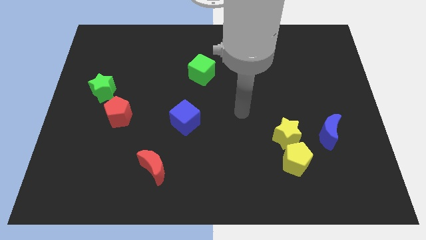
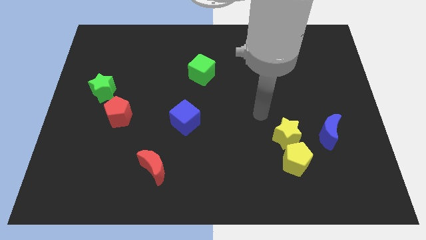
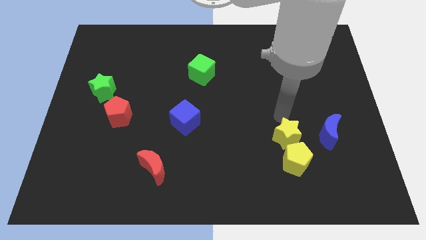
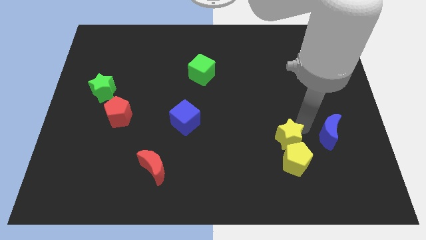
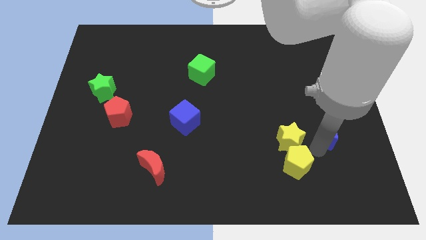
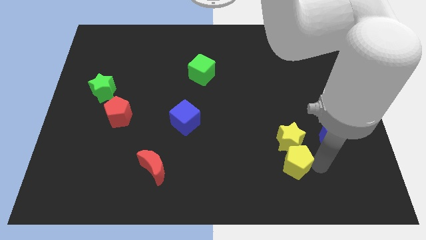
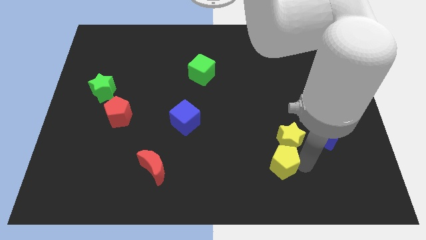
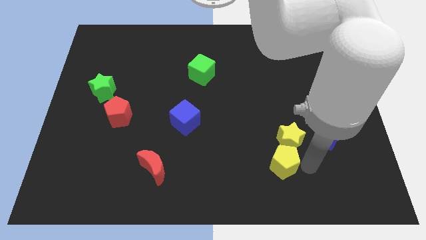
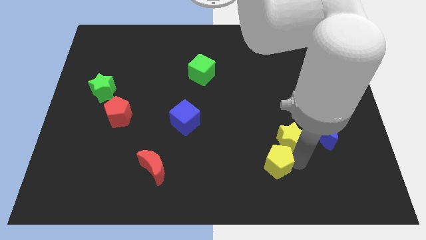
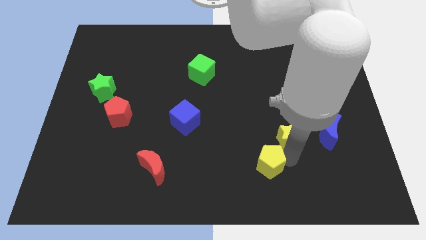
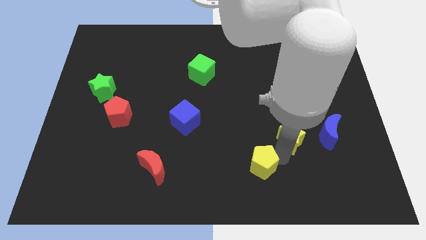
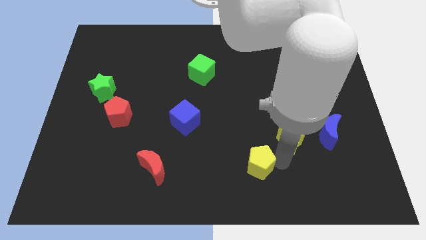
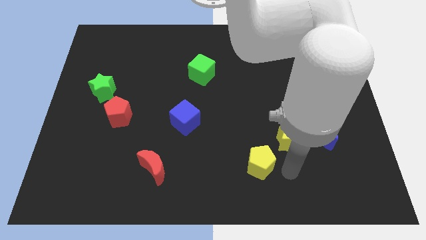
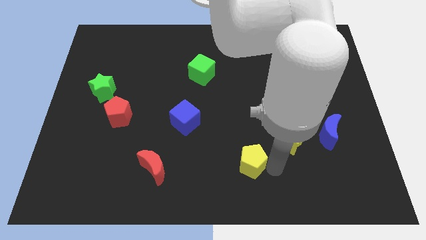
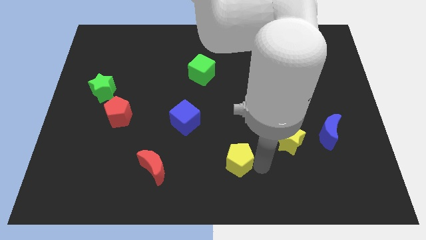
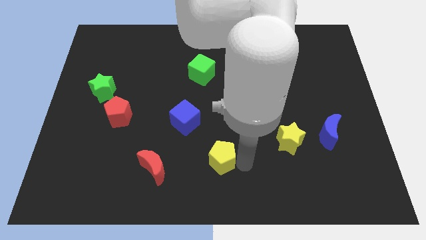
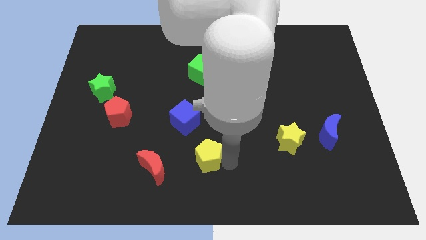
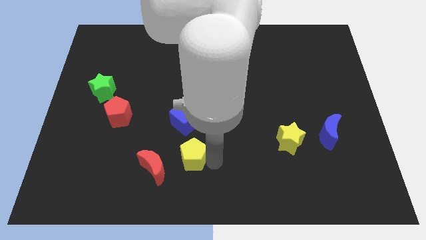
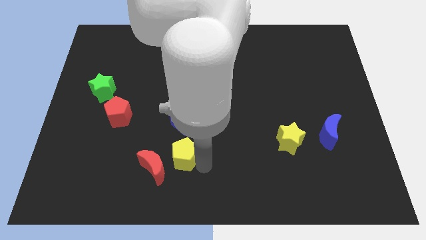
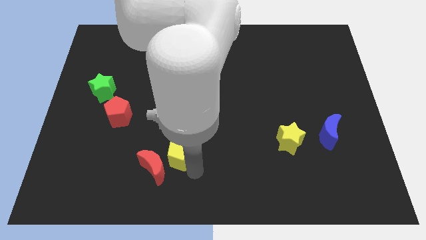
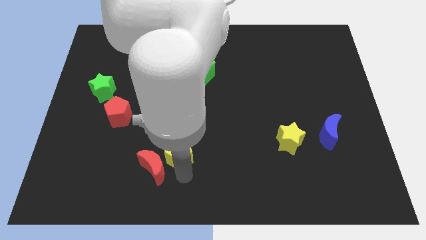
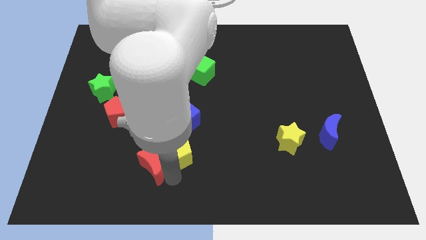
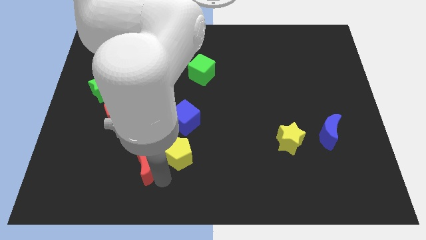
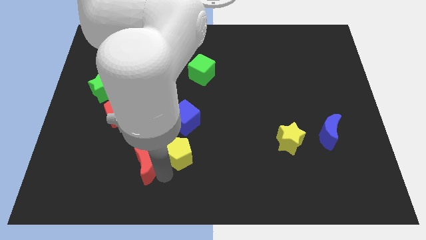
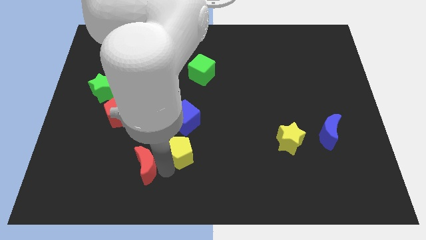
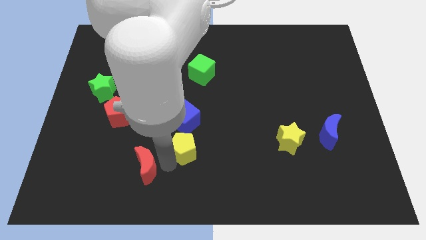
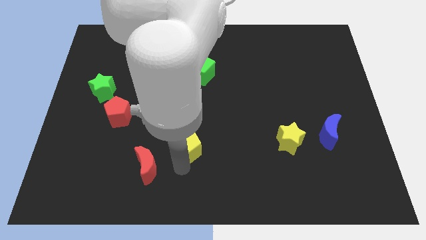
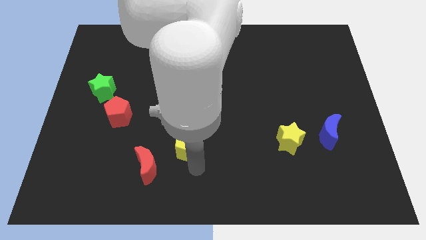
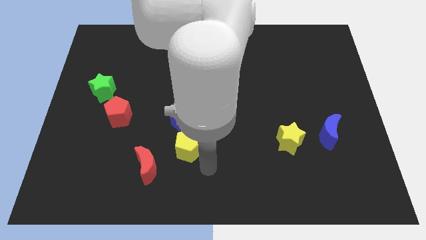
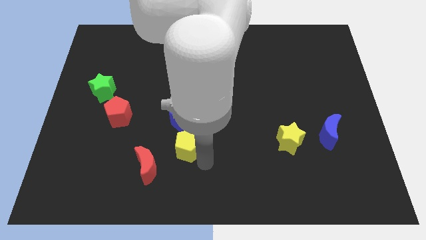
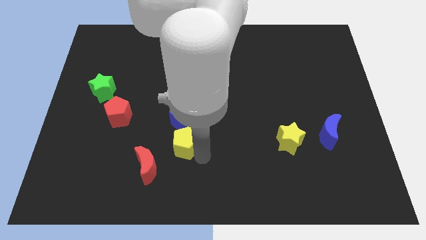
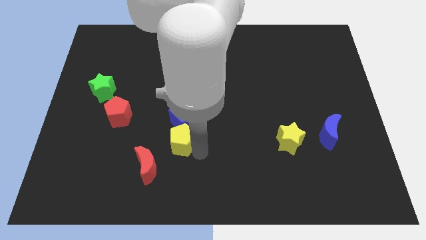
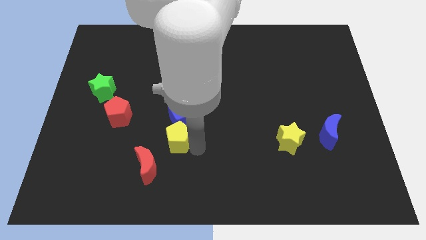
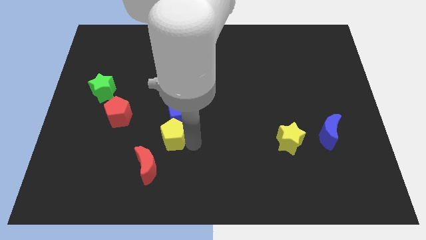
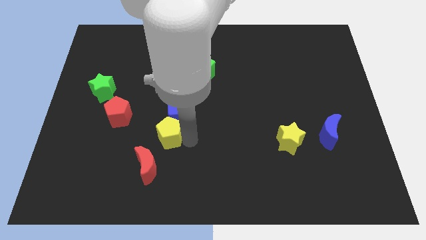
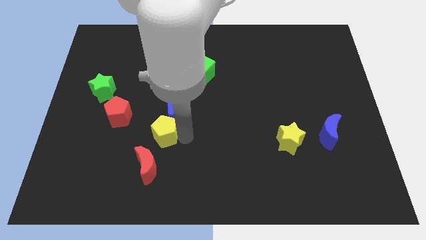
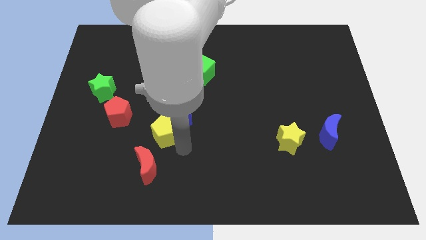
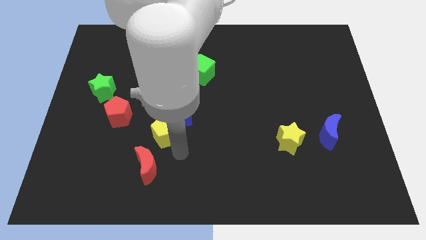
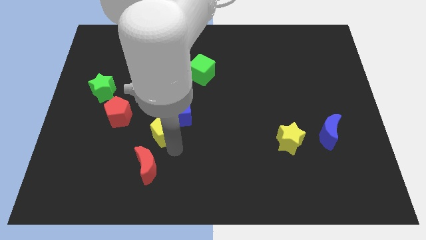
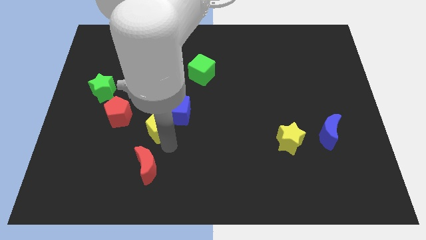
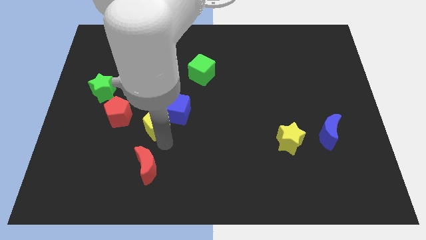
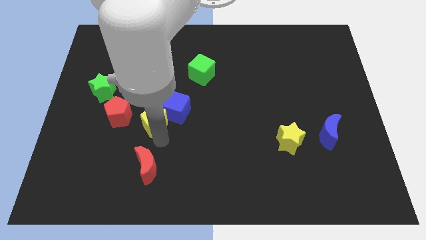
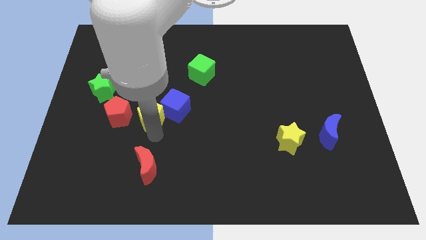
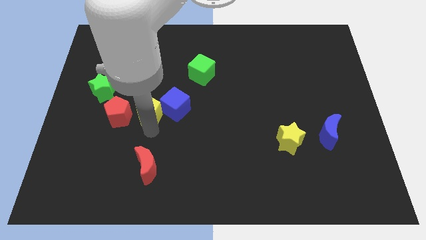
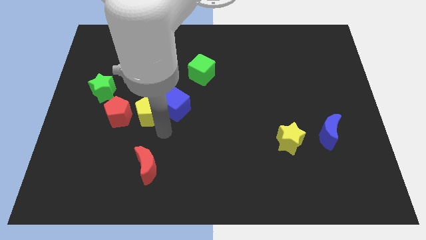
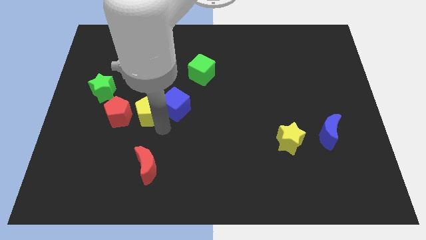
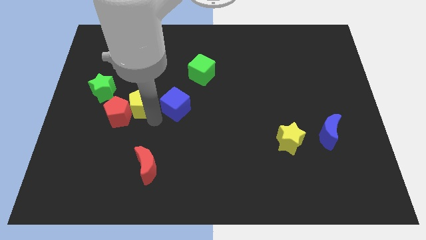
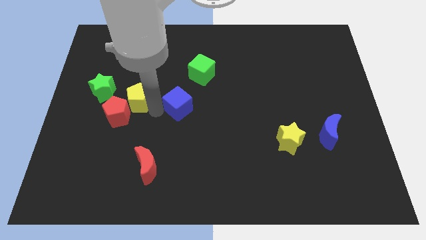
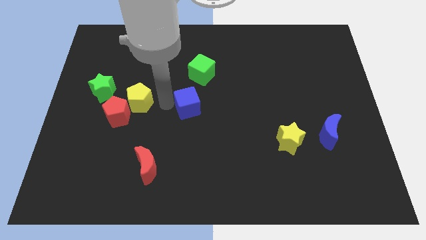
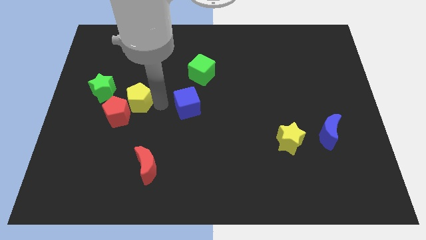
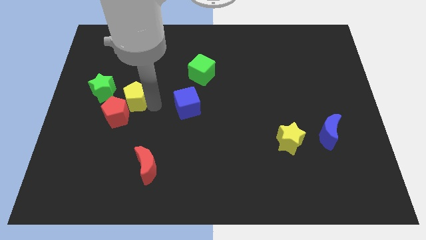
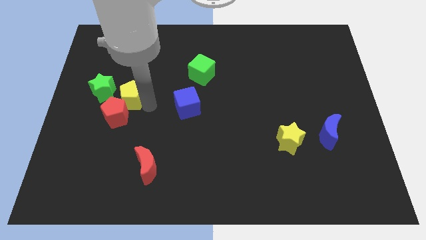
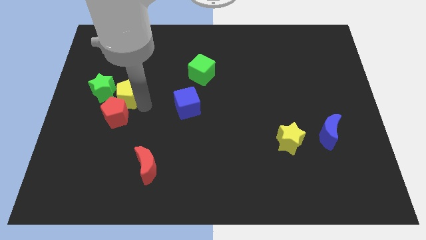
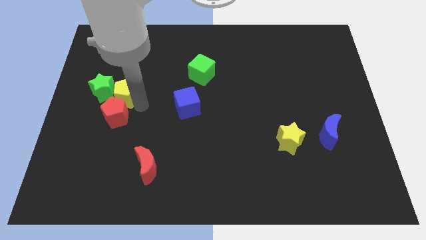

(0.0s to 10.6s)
slide the yellow pentagon to the green star

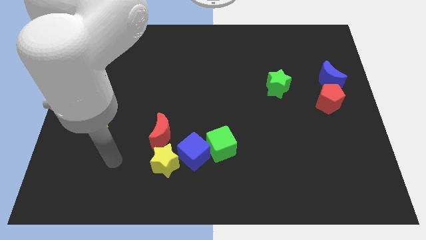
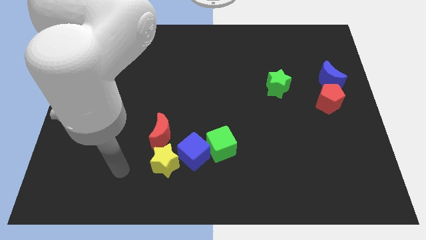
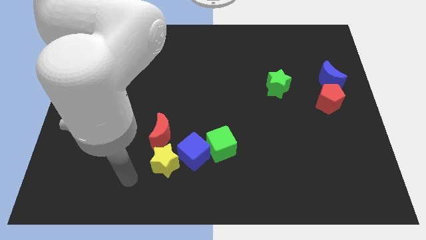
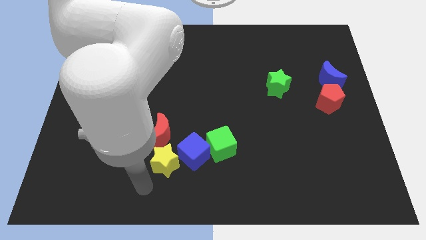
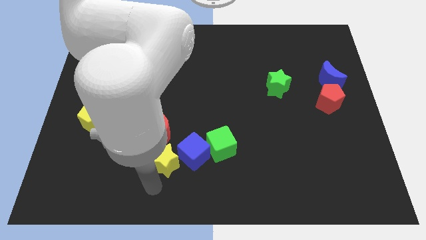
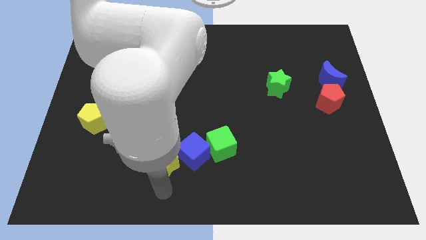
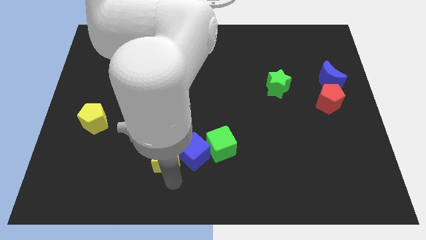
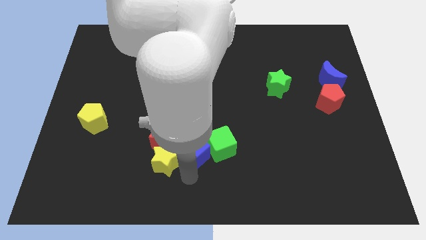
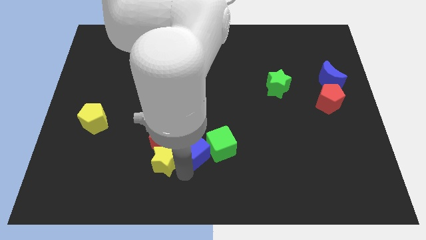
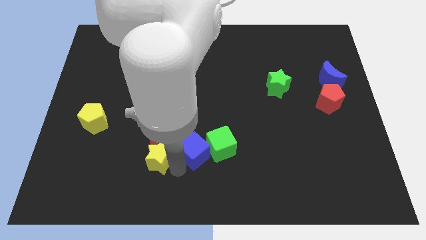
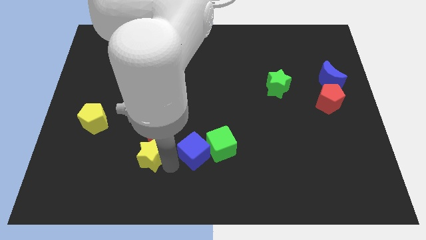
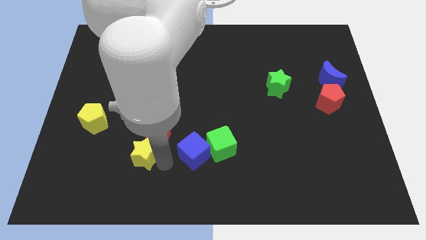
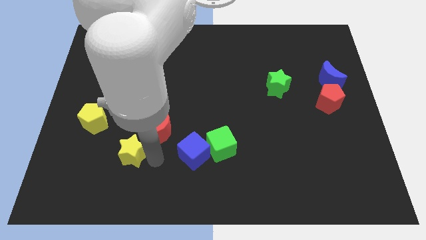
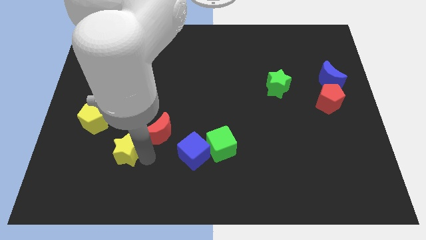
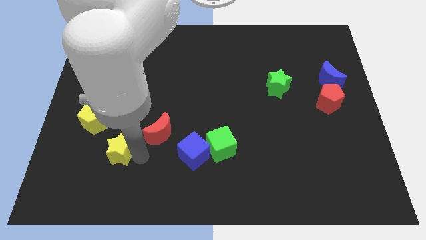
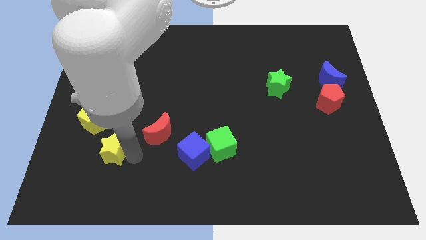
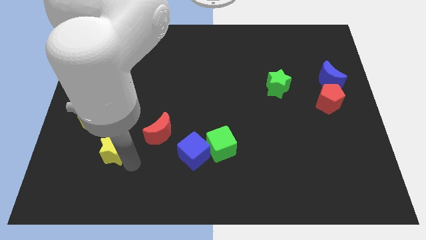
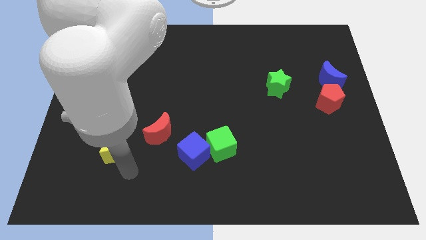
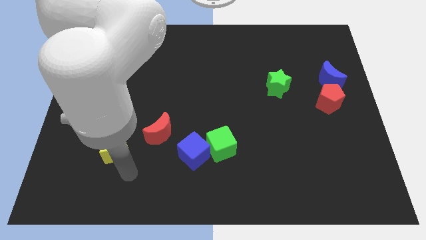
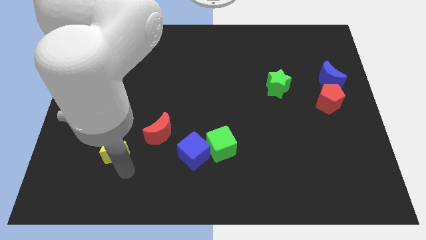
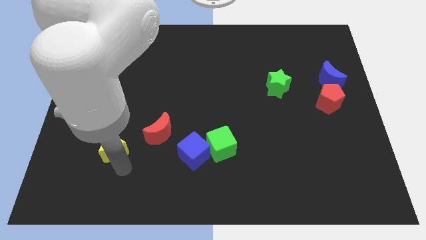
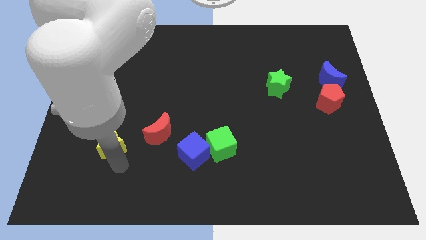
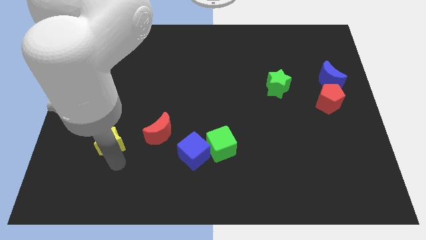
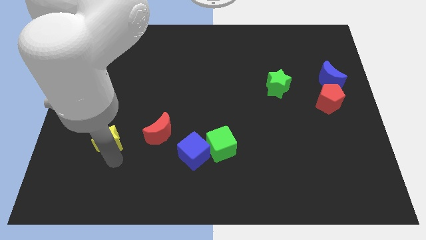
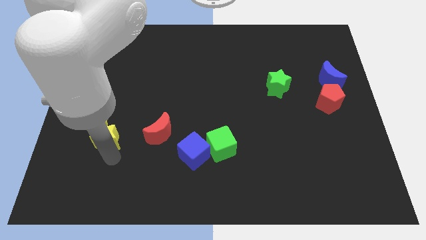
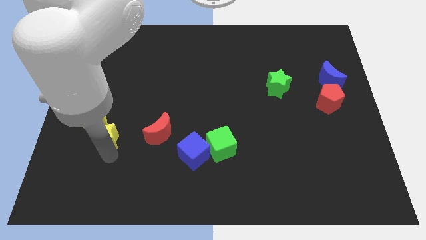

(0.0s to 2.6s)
slide the yellow star next to the yellow pentagon
